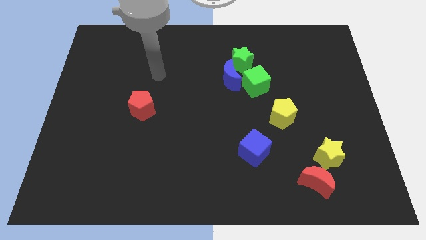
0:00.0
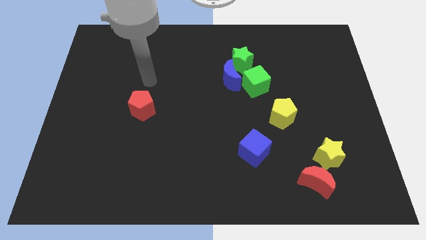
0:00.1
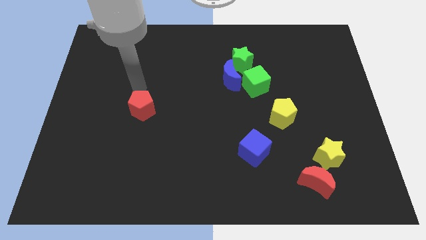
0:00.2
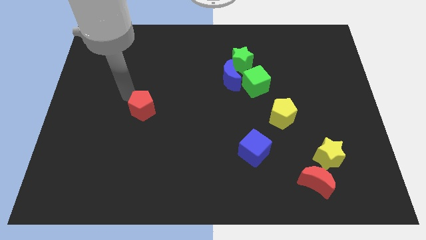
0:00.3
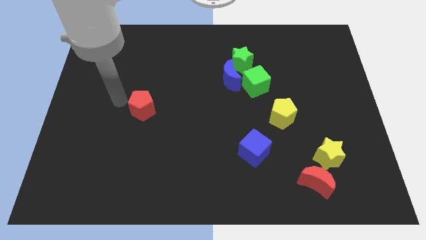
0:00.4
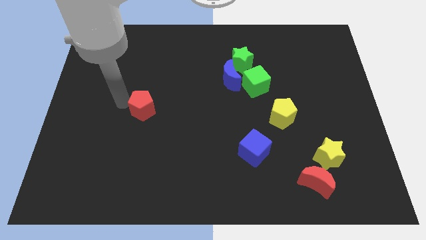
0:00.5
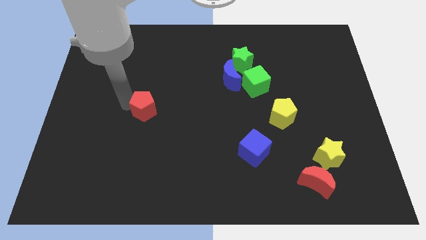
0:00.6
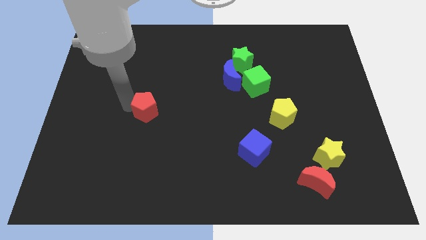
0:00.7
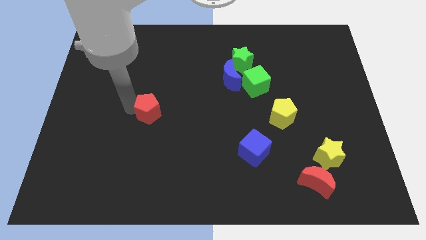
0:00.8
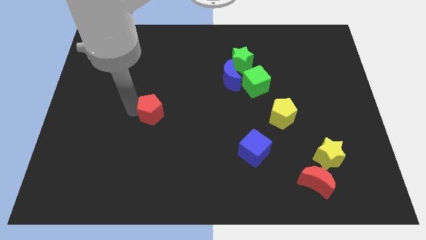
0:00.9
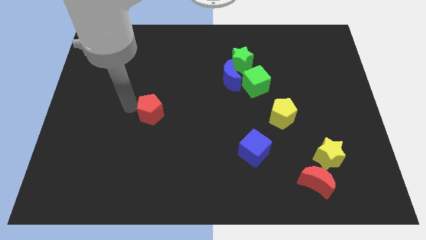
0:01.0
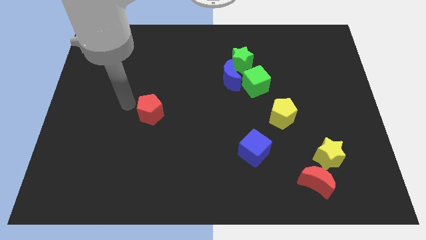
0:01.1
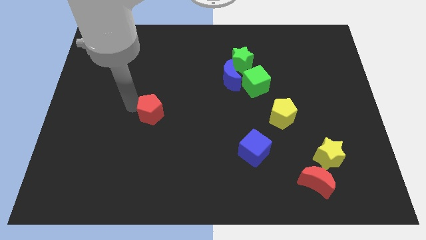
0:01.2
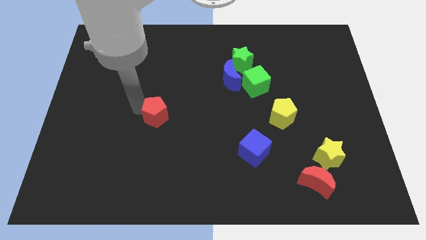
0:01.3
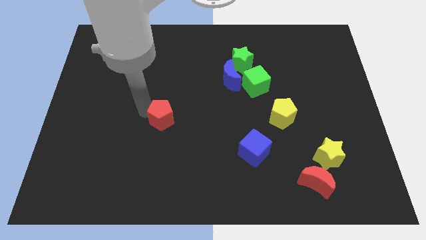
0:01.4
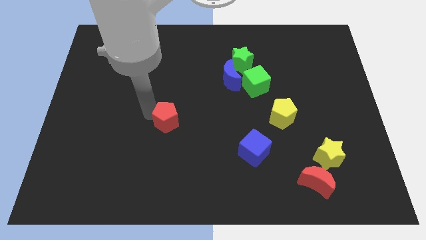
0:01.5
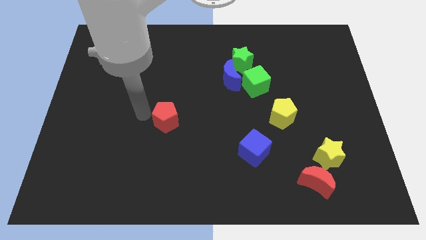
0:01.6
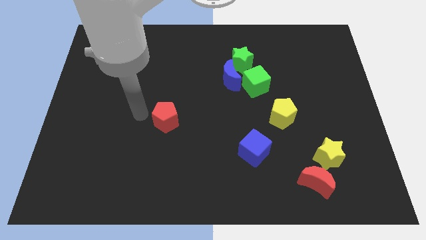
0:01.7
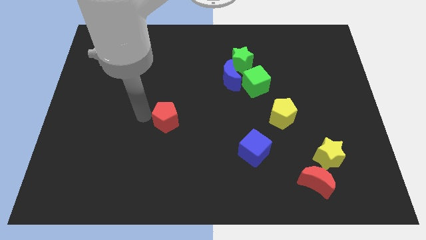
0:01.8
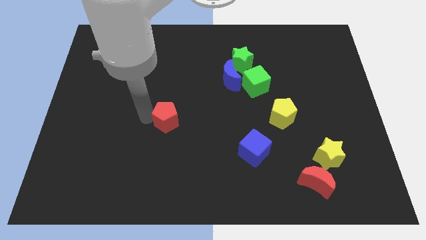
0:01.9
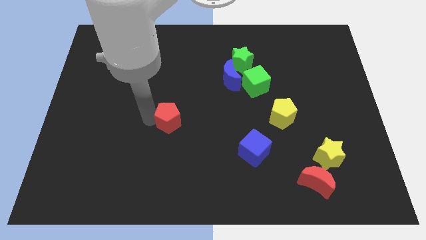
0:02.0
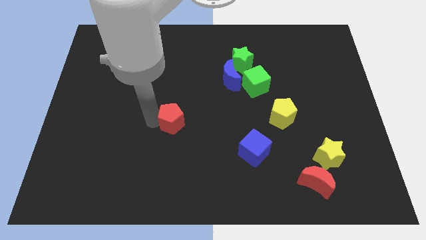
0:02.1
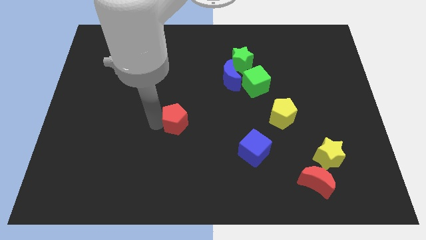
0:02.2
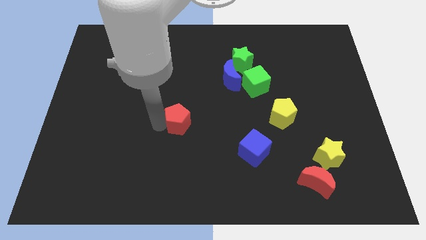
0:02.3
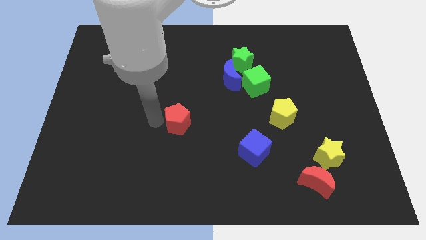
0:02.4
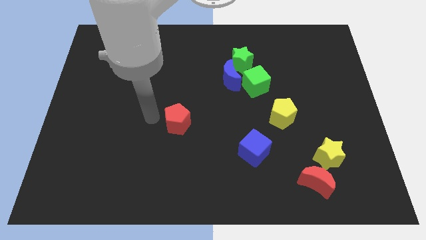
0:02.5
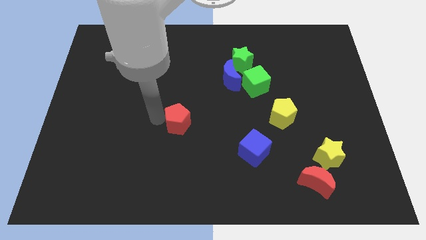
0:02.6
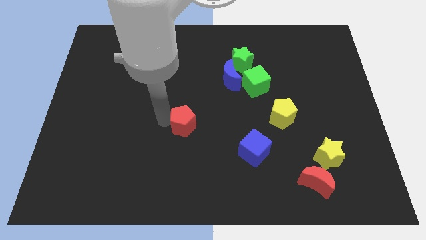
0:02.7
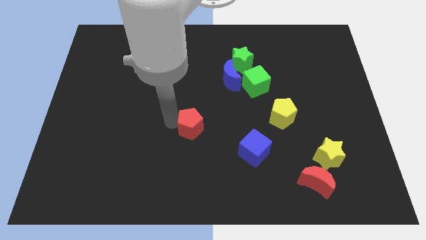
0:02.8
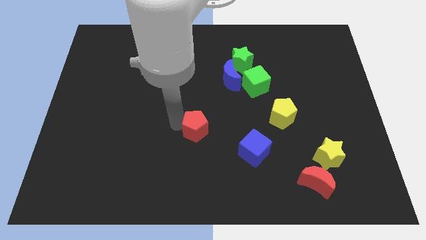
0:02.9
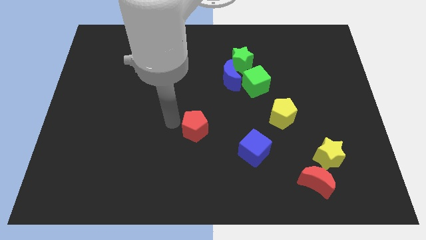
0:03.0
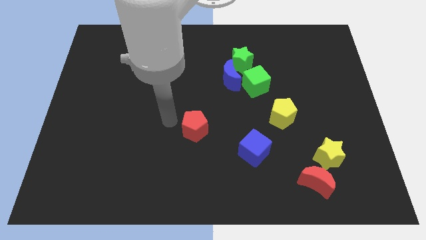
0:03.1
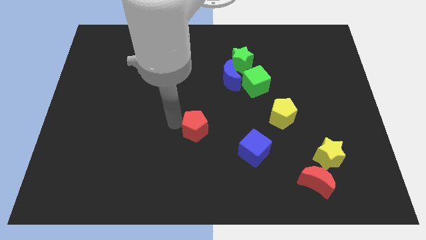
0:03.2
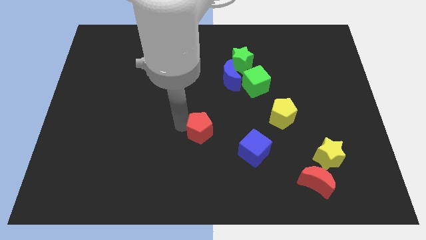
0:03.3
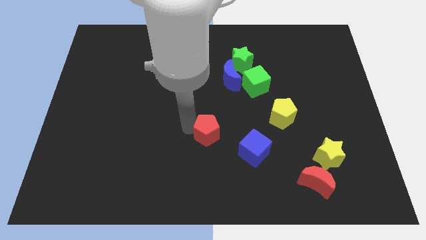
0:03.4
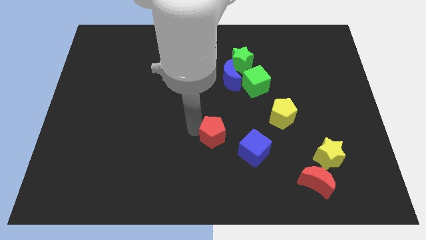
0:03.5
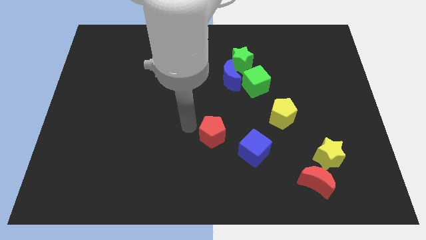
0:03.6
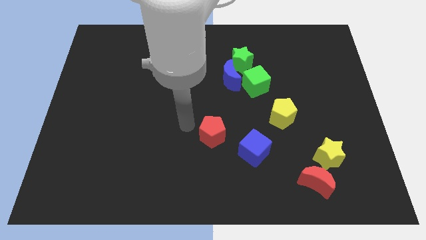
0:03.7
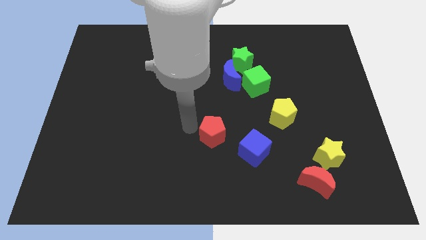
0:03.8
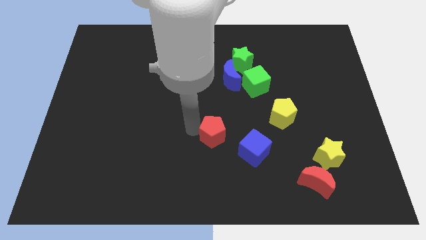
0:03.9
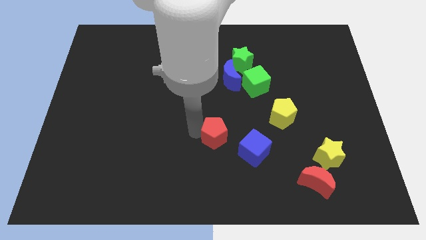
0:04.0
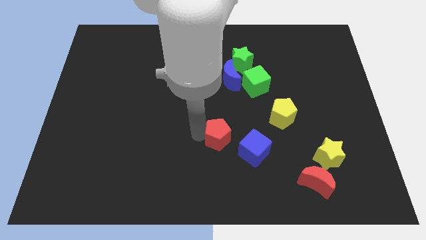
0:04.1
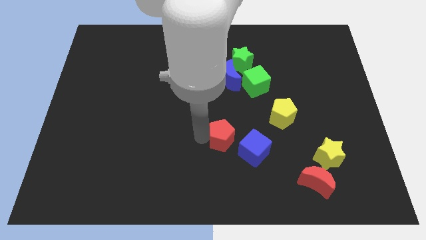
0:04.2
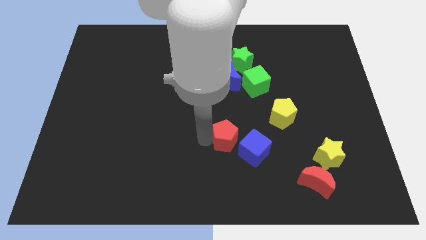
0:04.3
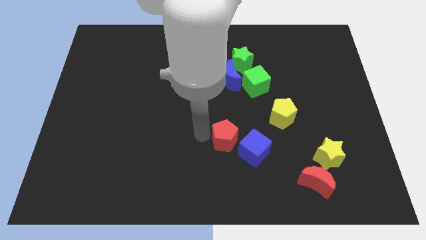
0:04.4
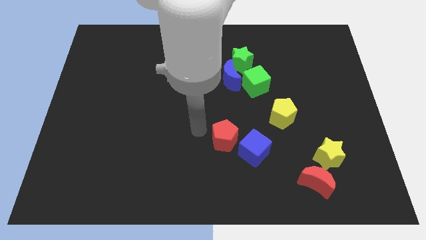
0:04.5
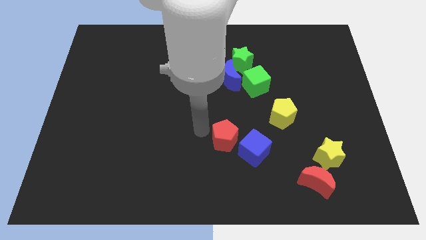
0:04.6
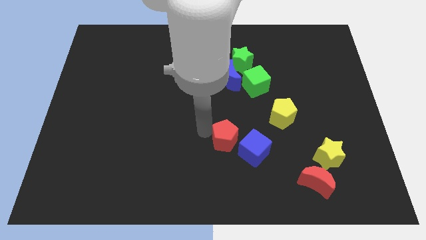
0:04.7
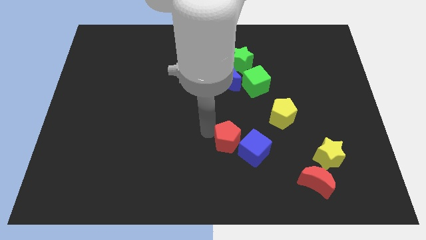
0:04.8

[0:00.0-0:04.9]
slide the red pentagon to the blue cube

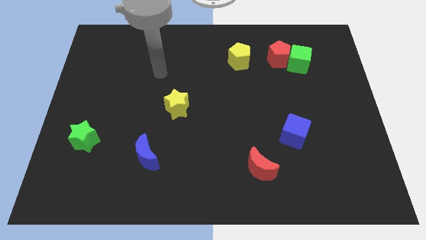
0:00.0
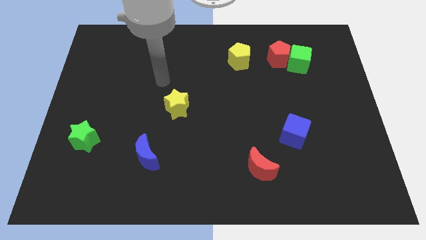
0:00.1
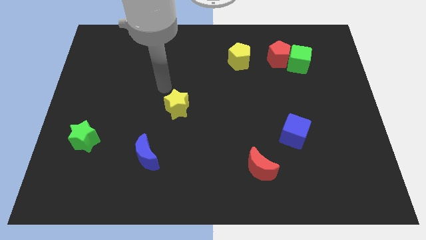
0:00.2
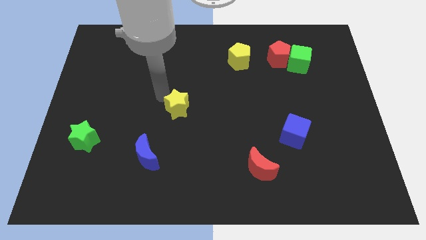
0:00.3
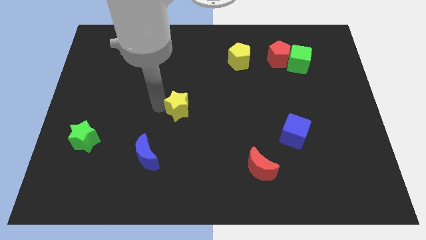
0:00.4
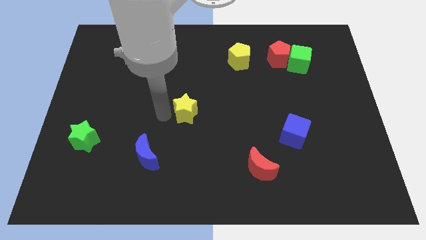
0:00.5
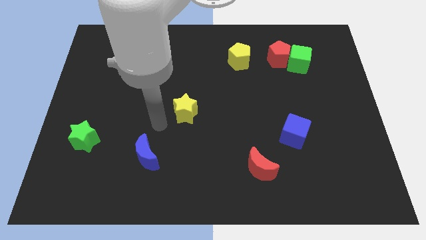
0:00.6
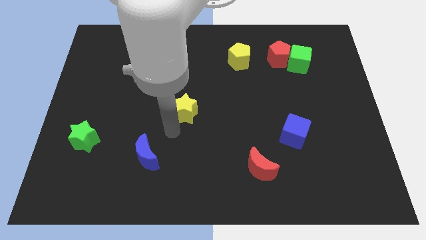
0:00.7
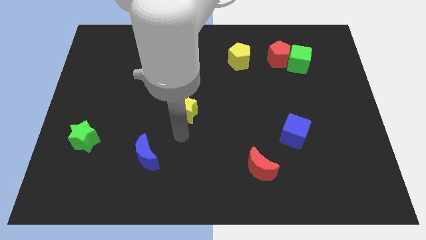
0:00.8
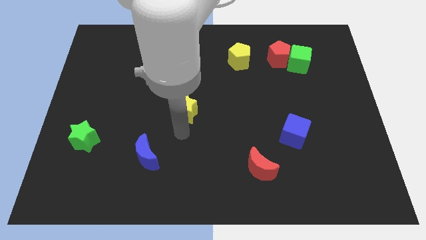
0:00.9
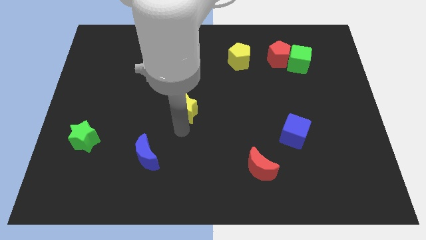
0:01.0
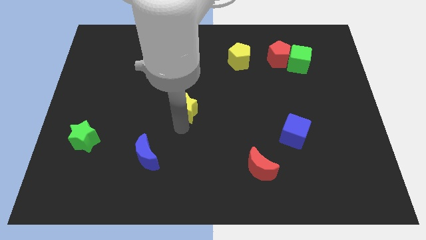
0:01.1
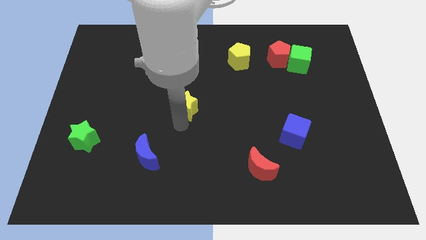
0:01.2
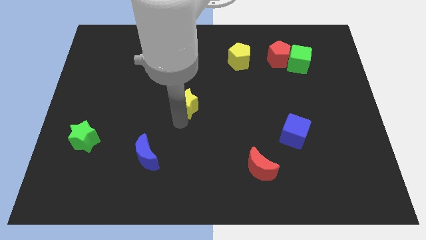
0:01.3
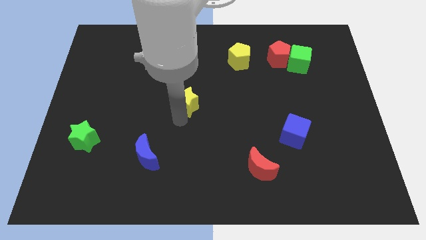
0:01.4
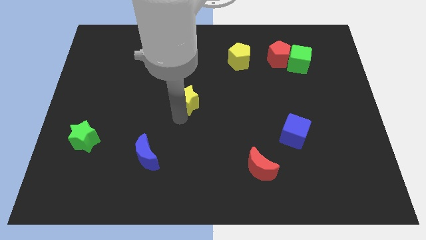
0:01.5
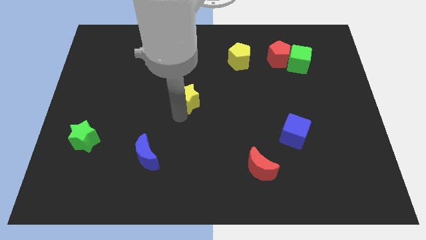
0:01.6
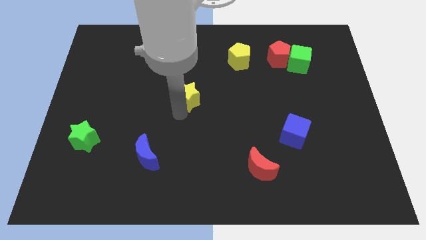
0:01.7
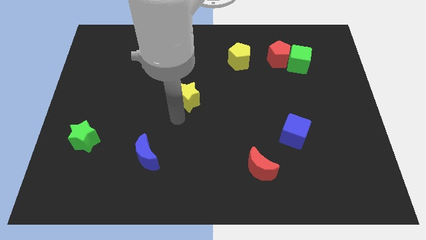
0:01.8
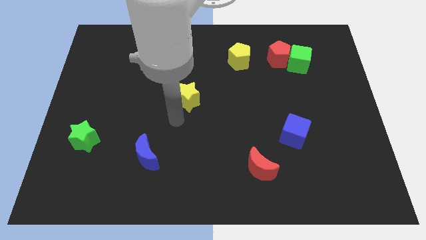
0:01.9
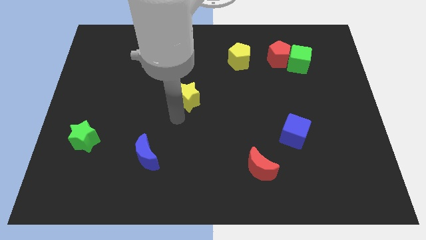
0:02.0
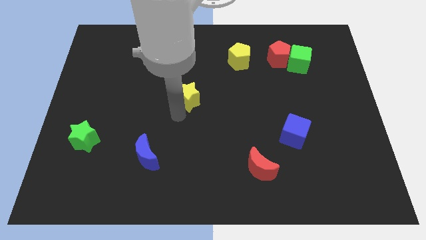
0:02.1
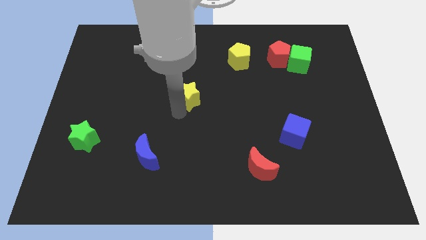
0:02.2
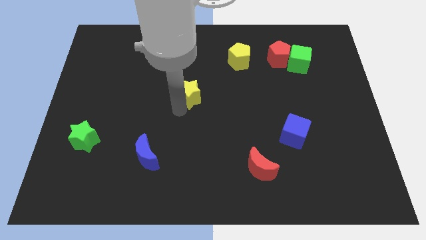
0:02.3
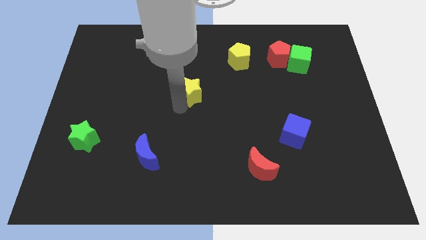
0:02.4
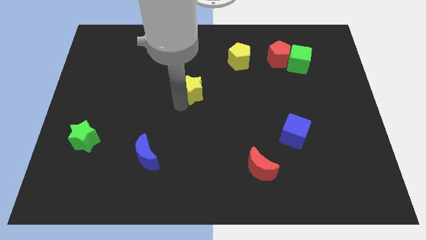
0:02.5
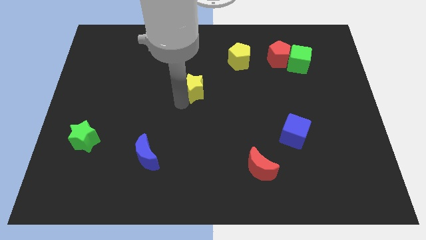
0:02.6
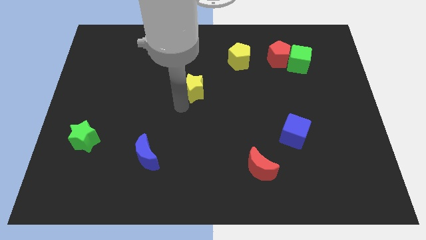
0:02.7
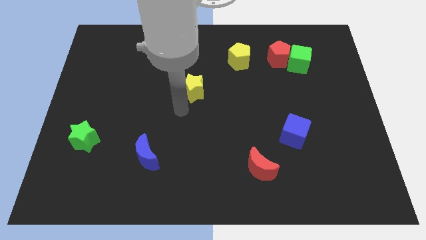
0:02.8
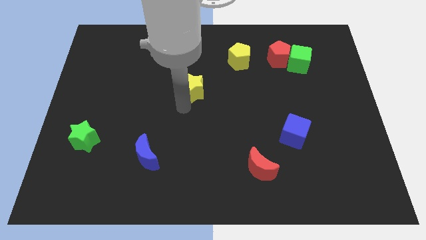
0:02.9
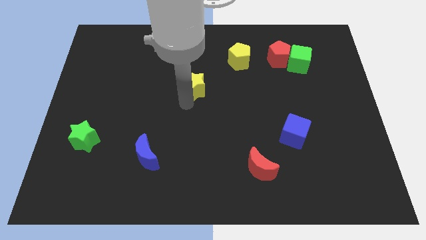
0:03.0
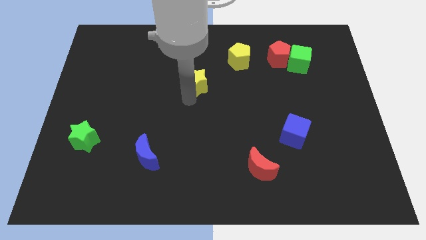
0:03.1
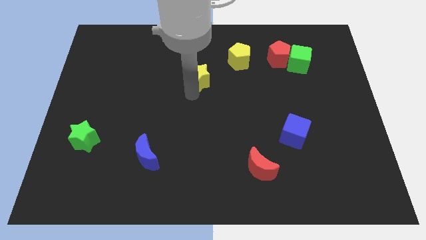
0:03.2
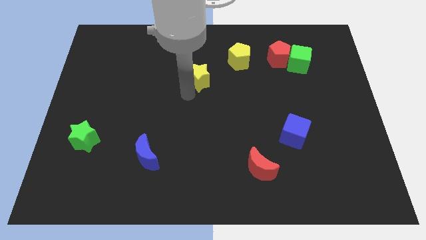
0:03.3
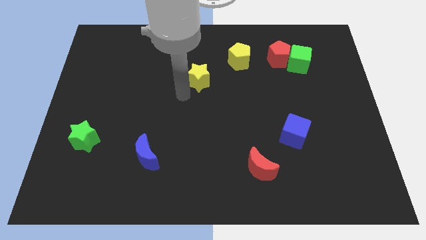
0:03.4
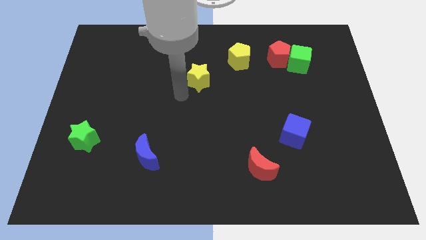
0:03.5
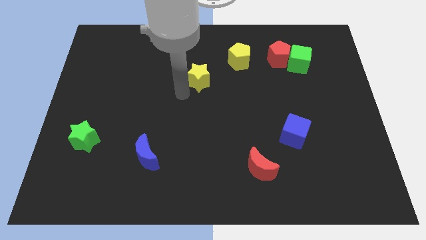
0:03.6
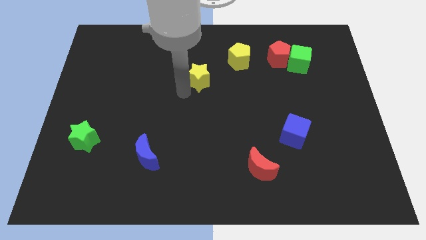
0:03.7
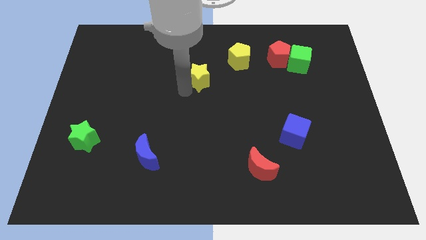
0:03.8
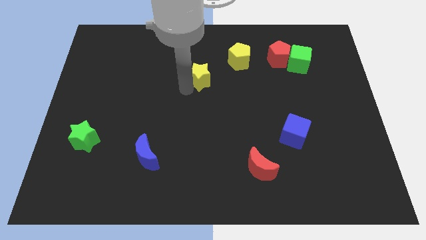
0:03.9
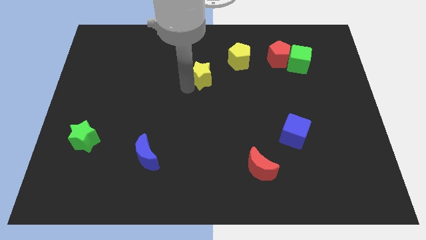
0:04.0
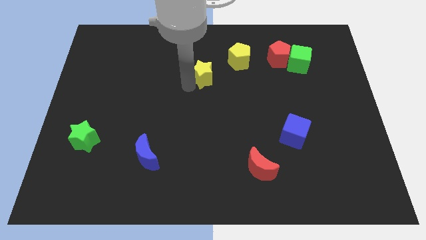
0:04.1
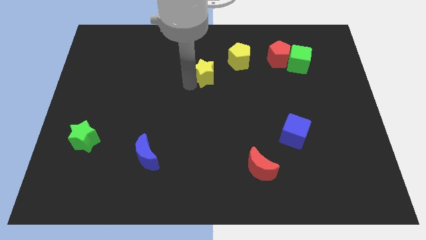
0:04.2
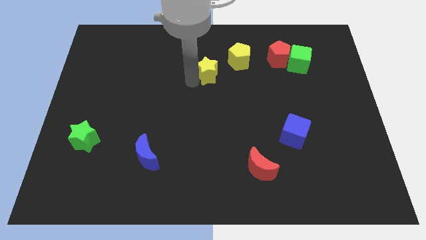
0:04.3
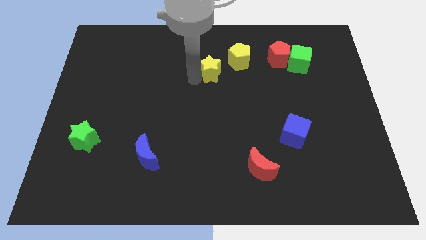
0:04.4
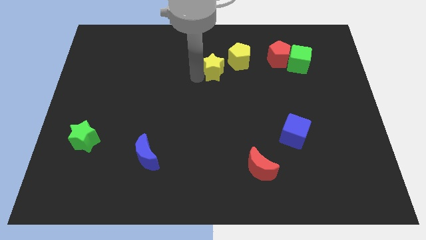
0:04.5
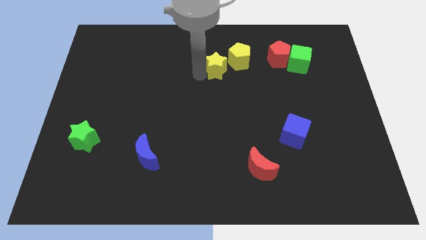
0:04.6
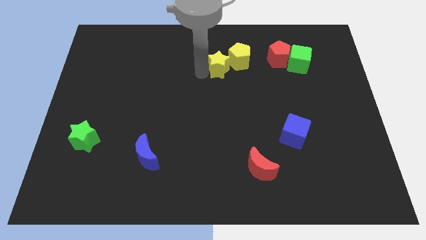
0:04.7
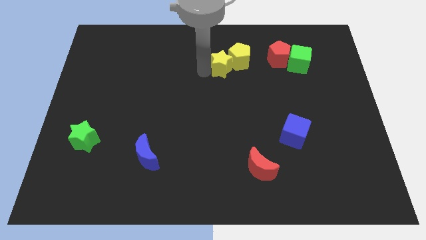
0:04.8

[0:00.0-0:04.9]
put the yellow star towards the yellow pentagon
